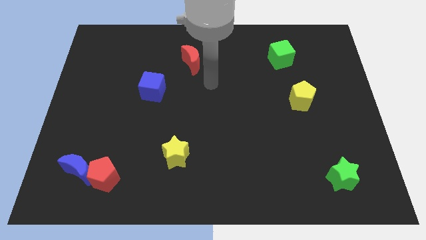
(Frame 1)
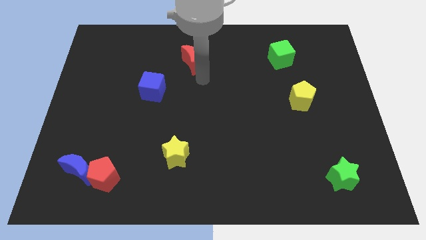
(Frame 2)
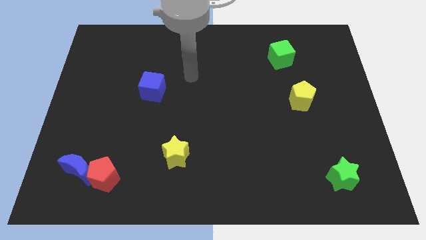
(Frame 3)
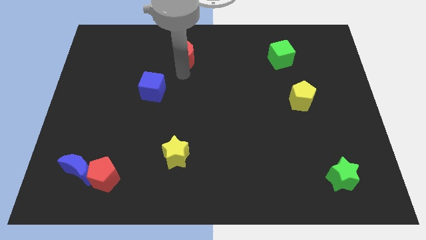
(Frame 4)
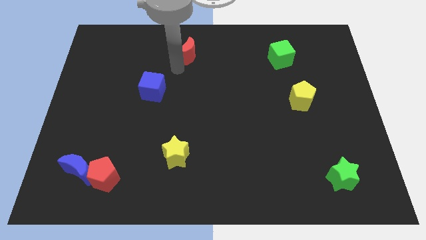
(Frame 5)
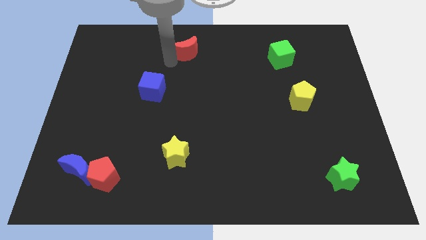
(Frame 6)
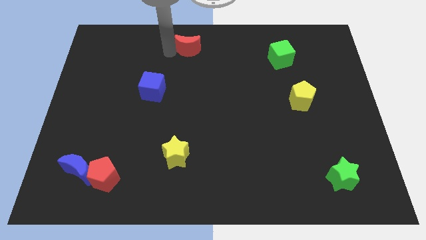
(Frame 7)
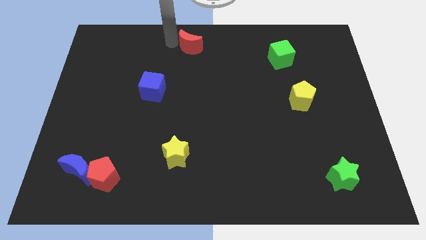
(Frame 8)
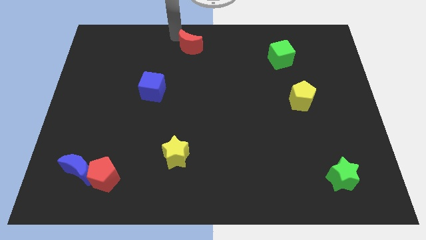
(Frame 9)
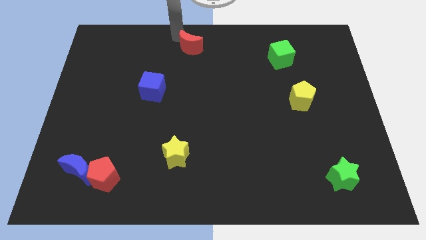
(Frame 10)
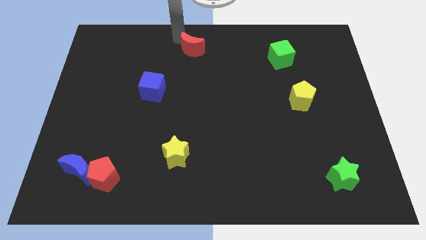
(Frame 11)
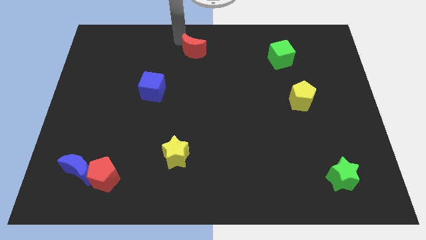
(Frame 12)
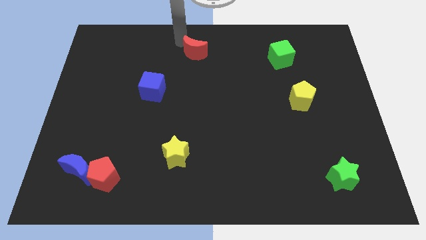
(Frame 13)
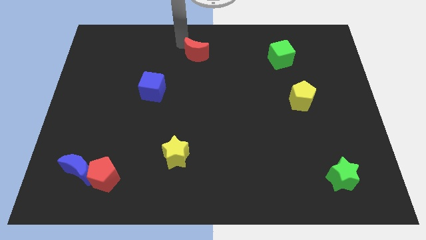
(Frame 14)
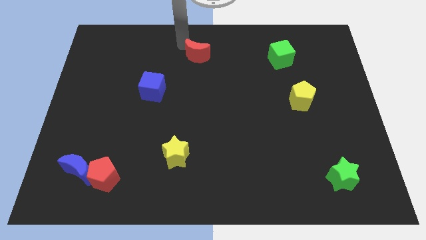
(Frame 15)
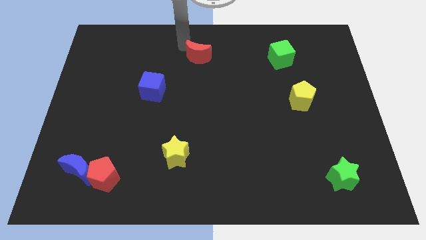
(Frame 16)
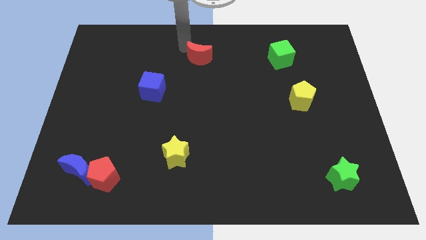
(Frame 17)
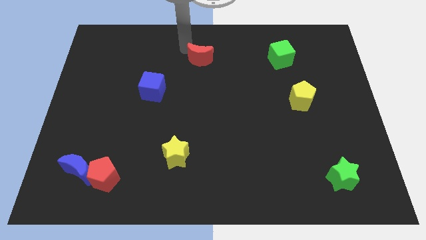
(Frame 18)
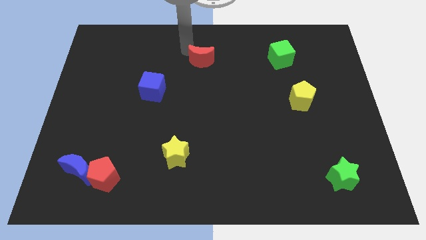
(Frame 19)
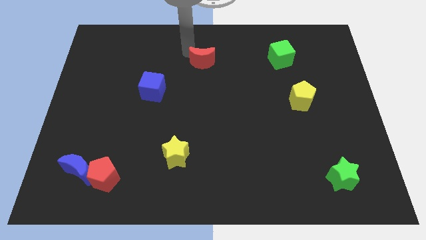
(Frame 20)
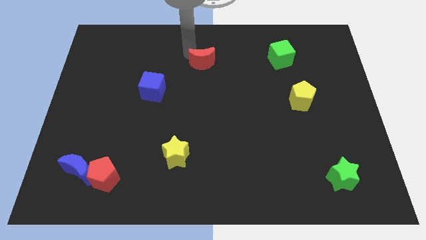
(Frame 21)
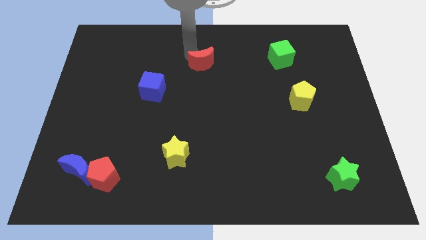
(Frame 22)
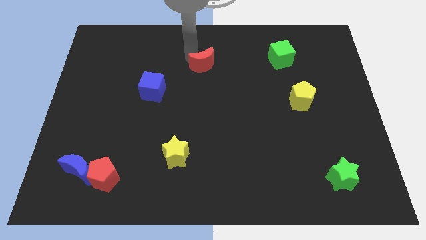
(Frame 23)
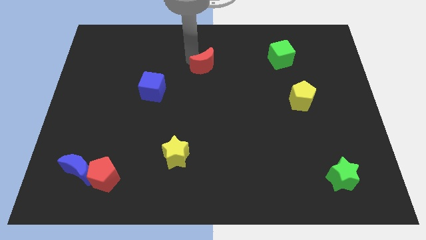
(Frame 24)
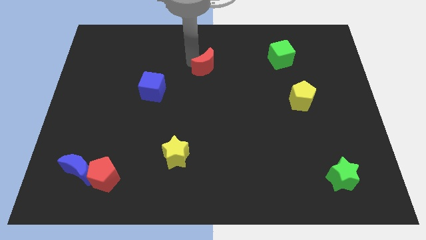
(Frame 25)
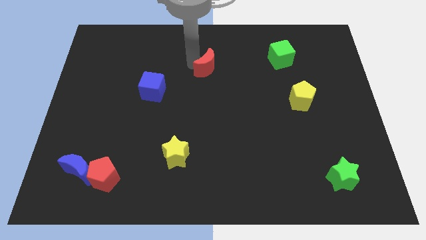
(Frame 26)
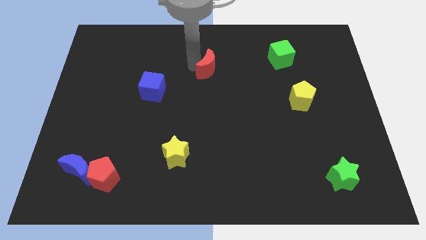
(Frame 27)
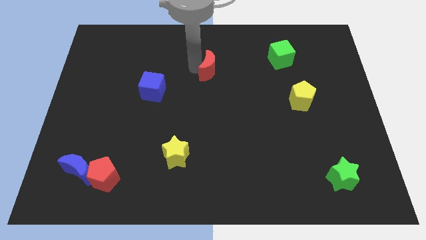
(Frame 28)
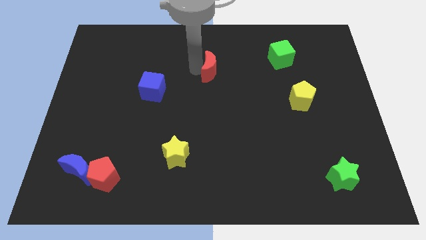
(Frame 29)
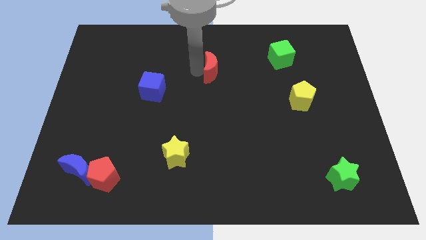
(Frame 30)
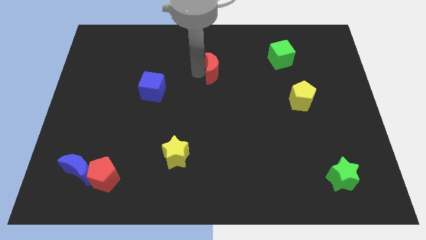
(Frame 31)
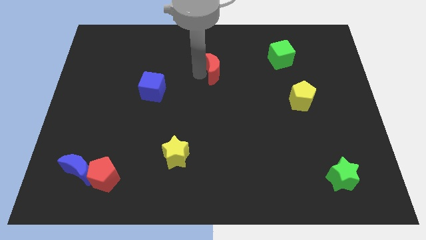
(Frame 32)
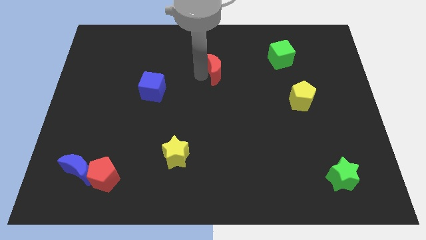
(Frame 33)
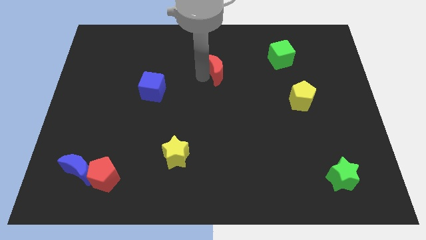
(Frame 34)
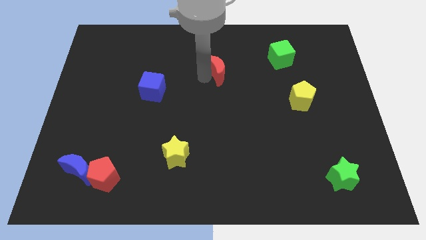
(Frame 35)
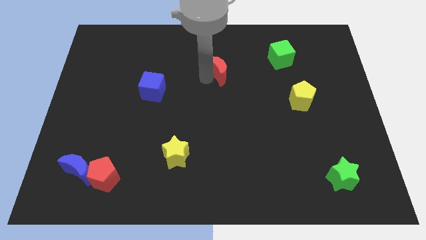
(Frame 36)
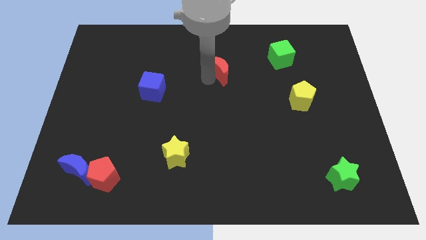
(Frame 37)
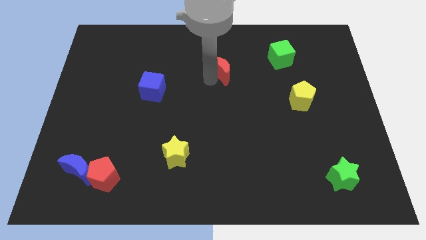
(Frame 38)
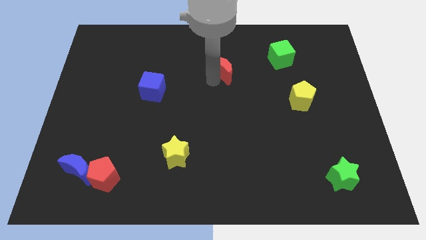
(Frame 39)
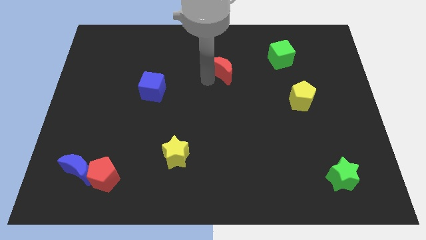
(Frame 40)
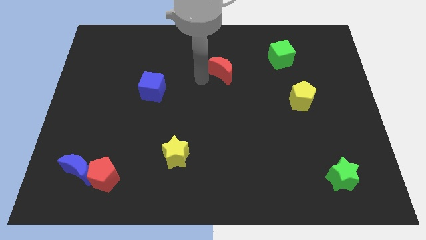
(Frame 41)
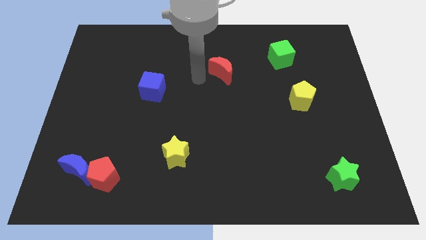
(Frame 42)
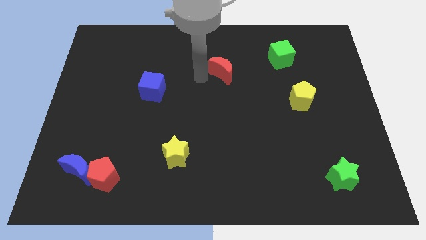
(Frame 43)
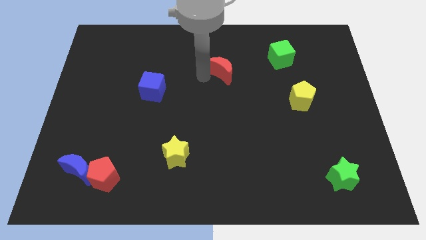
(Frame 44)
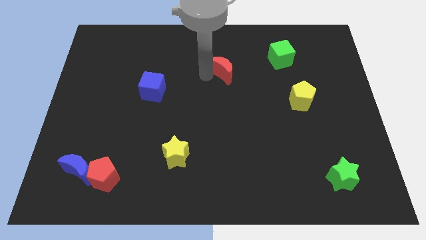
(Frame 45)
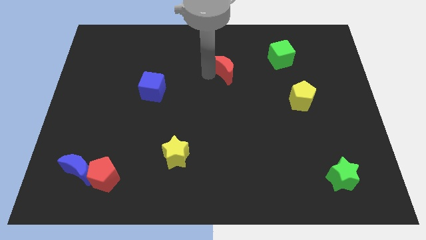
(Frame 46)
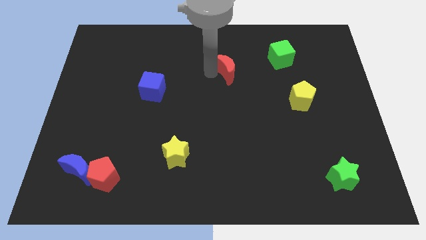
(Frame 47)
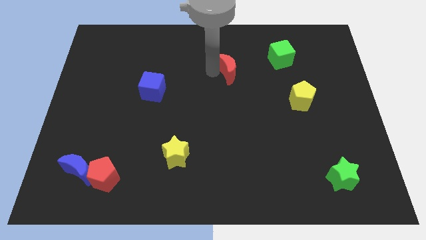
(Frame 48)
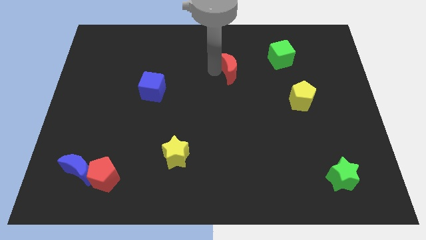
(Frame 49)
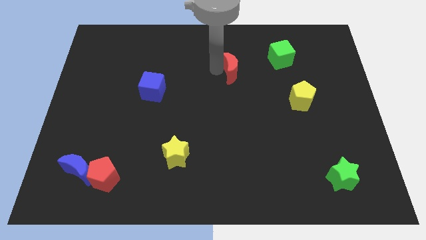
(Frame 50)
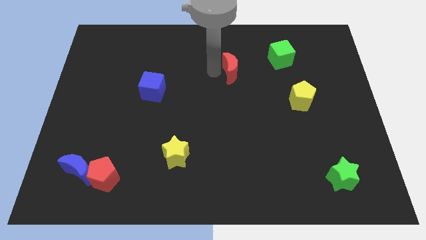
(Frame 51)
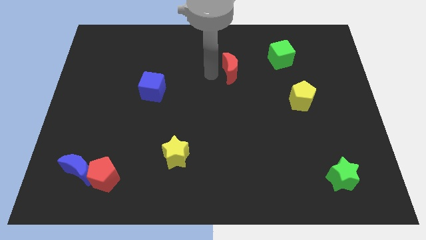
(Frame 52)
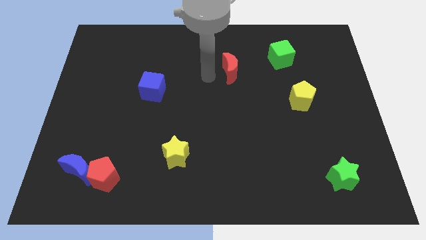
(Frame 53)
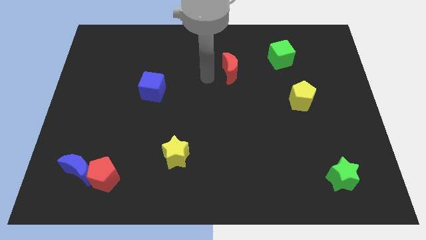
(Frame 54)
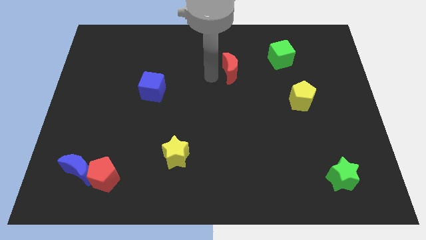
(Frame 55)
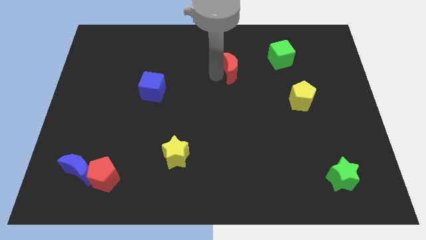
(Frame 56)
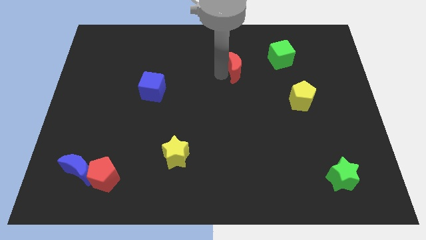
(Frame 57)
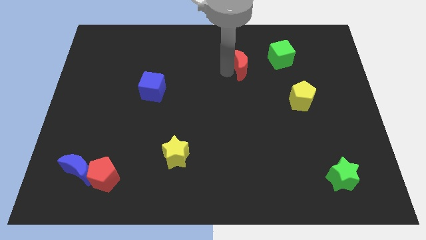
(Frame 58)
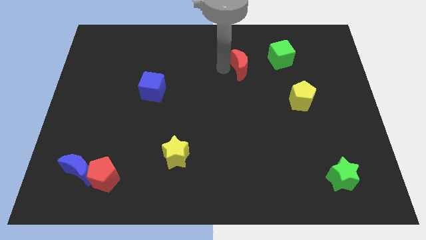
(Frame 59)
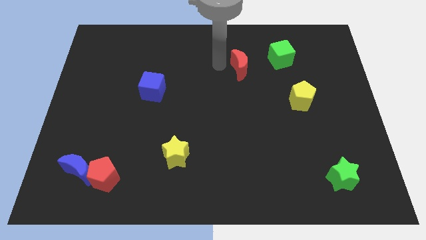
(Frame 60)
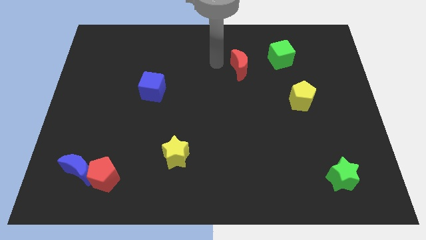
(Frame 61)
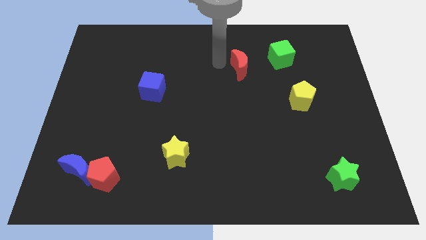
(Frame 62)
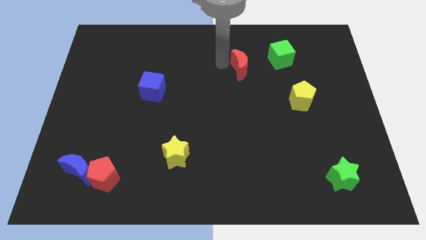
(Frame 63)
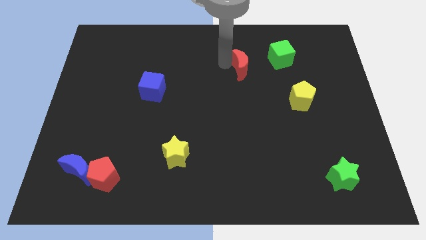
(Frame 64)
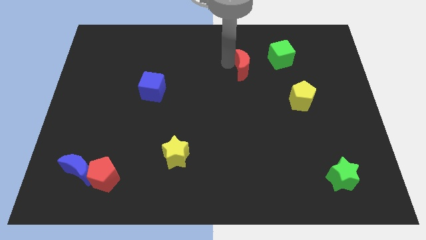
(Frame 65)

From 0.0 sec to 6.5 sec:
put the red moon diagonally down and to the left of the green cube

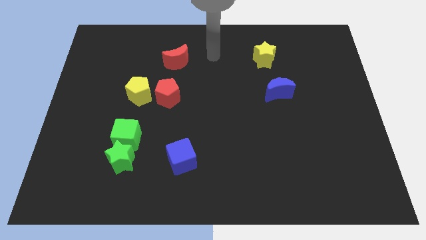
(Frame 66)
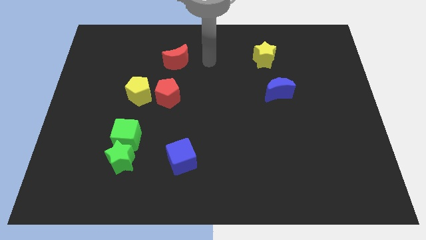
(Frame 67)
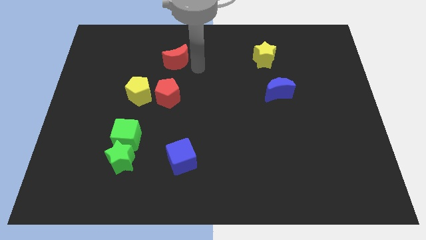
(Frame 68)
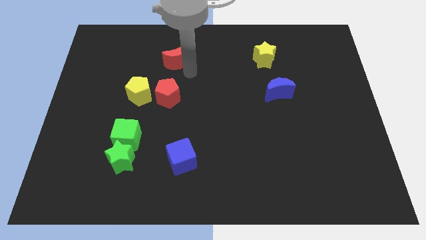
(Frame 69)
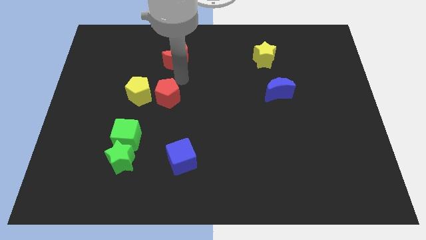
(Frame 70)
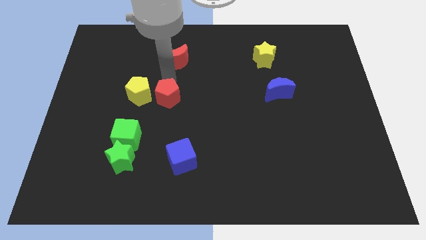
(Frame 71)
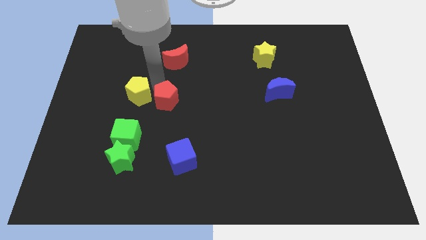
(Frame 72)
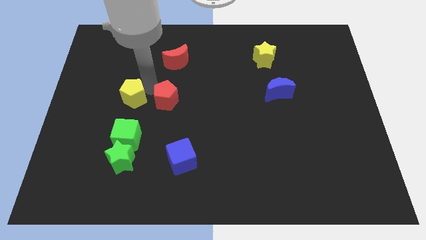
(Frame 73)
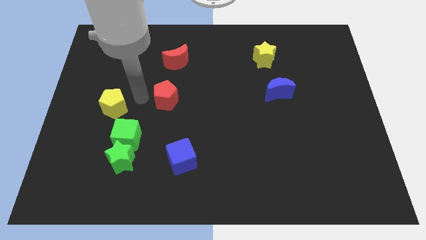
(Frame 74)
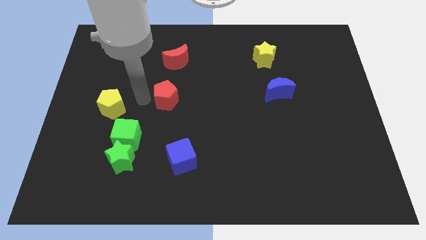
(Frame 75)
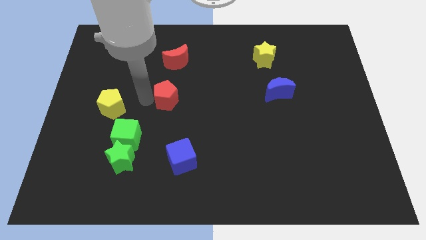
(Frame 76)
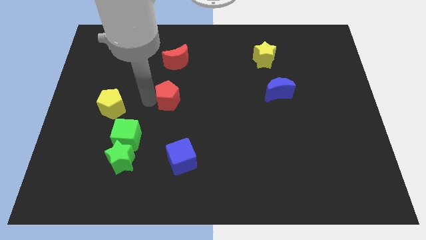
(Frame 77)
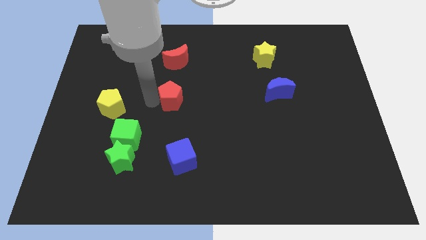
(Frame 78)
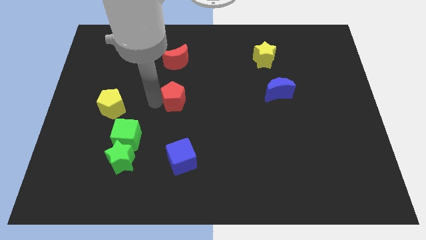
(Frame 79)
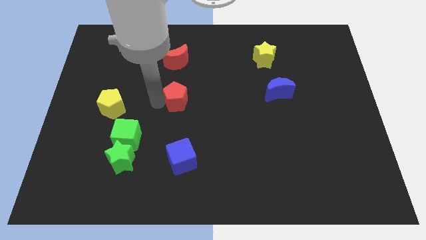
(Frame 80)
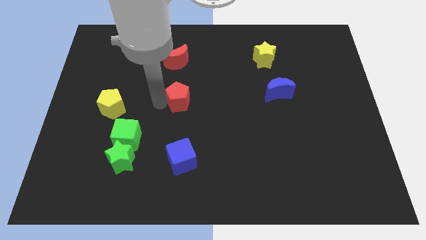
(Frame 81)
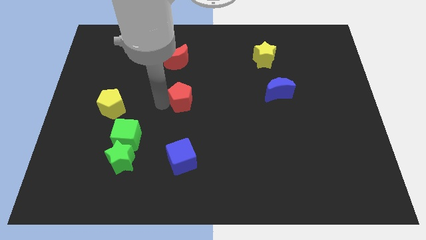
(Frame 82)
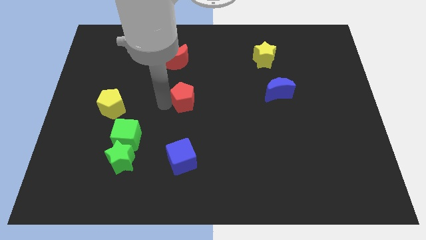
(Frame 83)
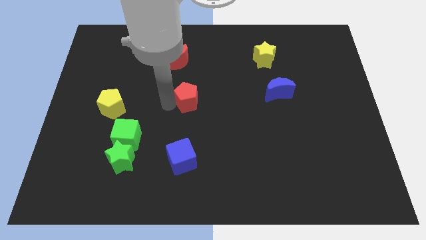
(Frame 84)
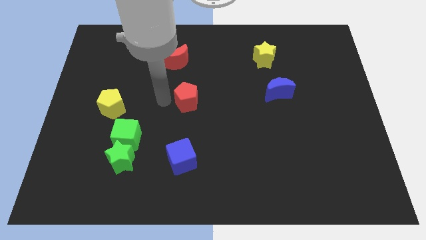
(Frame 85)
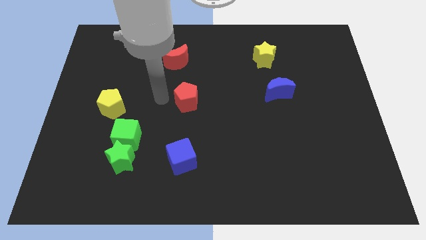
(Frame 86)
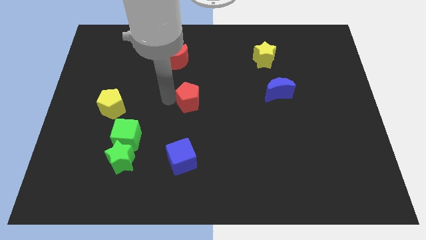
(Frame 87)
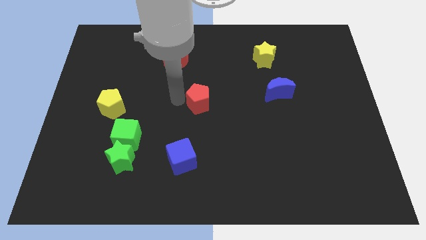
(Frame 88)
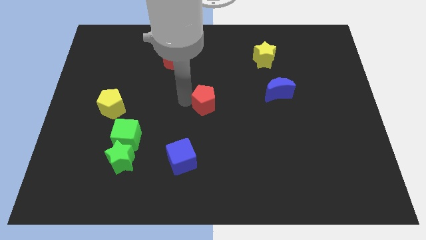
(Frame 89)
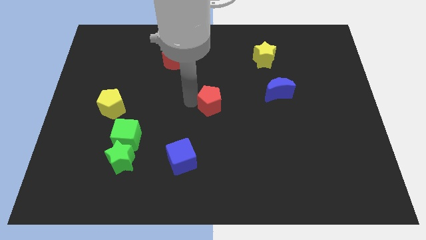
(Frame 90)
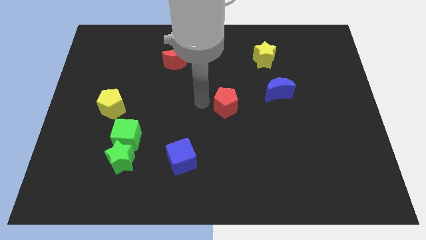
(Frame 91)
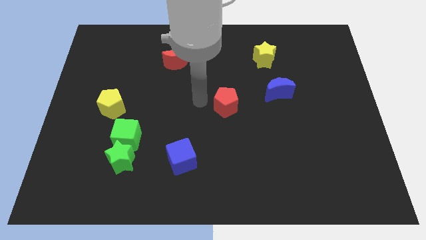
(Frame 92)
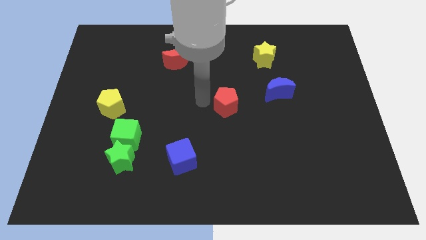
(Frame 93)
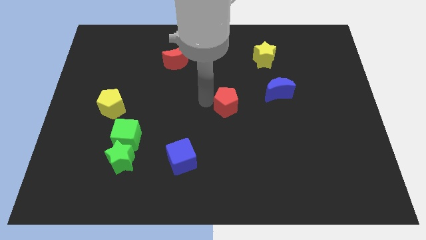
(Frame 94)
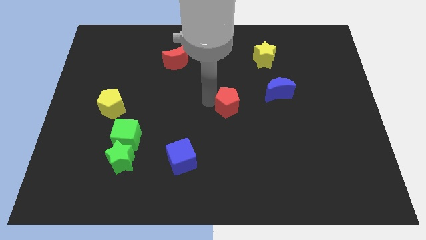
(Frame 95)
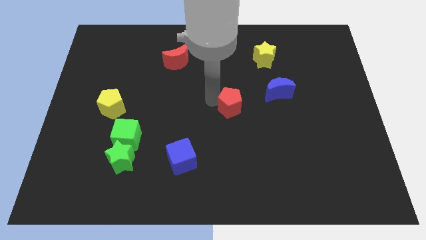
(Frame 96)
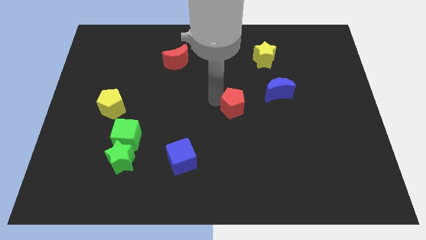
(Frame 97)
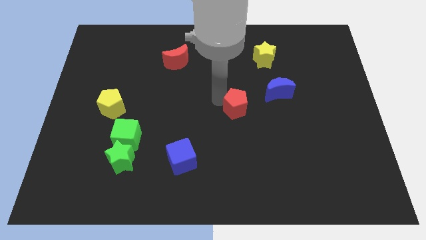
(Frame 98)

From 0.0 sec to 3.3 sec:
push the red pentagon to the bottom left side of the blue moon
